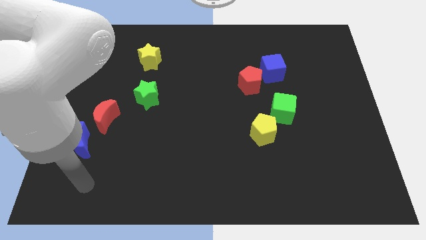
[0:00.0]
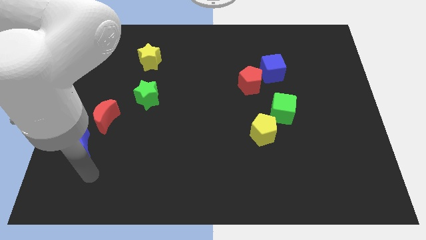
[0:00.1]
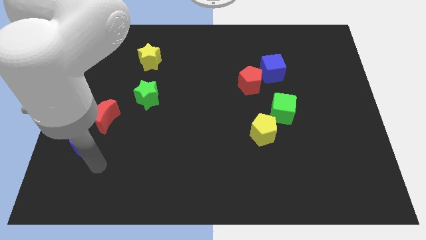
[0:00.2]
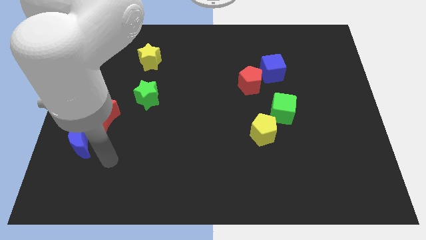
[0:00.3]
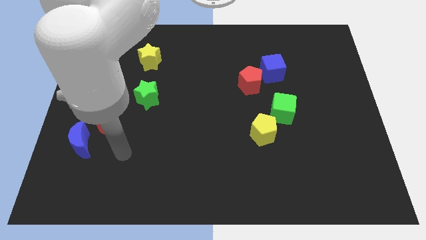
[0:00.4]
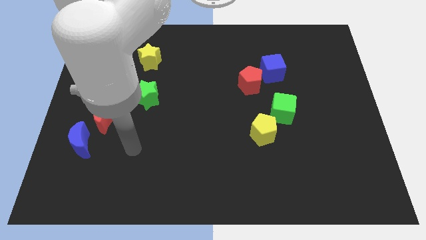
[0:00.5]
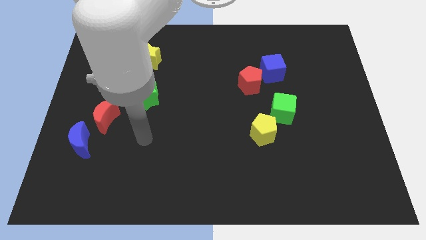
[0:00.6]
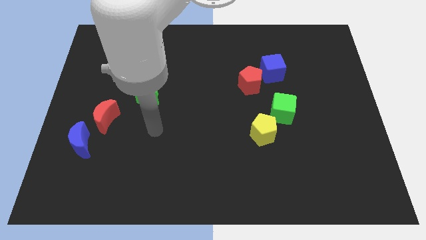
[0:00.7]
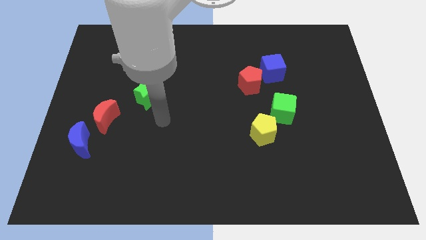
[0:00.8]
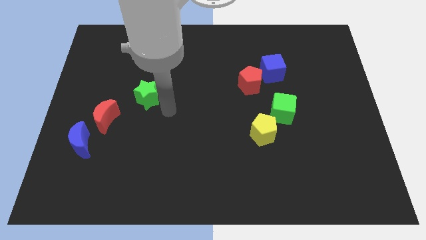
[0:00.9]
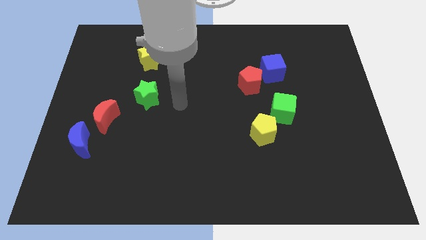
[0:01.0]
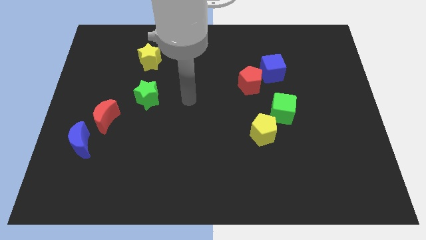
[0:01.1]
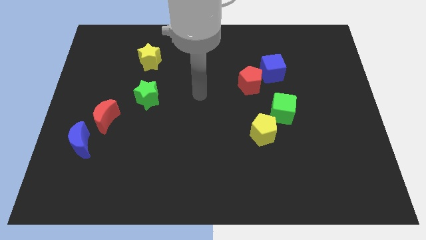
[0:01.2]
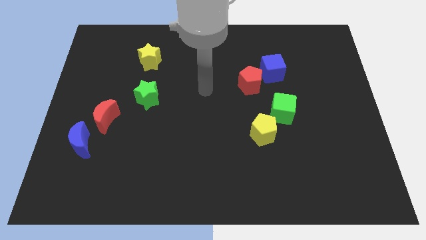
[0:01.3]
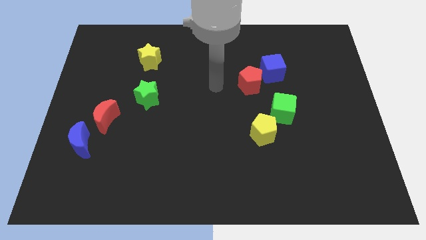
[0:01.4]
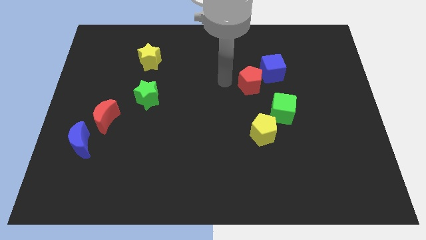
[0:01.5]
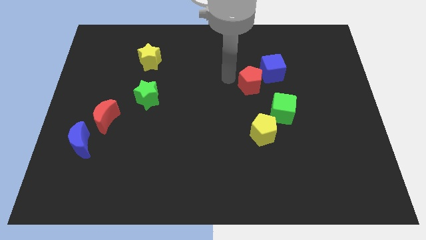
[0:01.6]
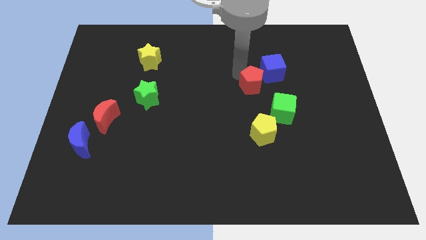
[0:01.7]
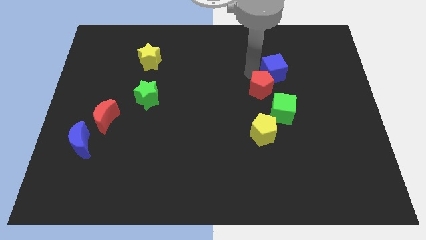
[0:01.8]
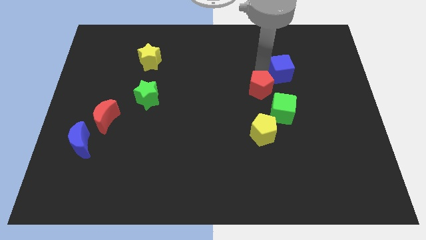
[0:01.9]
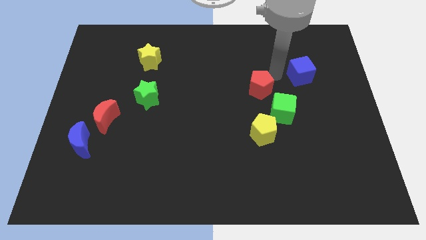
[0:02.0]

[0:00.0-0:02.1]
pull the red pentagon apart from the blue cube

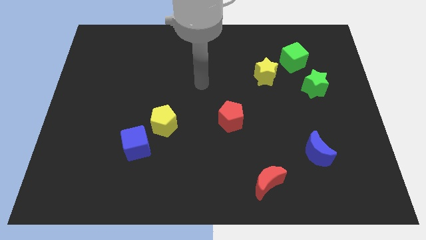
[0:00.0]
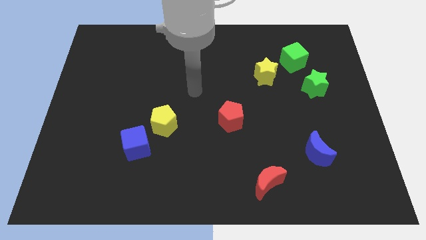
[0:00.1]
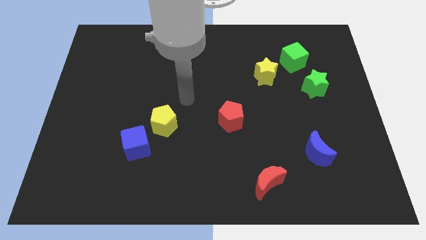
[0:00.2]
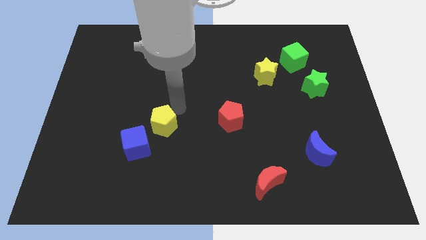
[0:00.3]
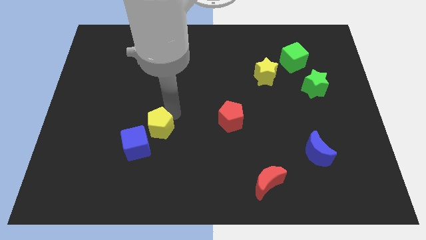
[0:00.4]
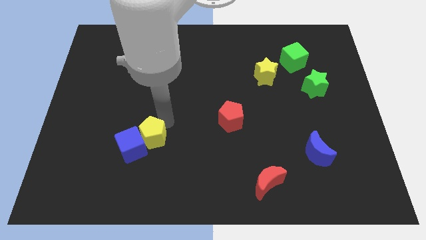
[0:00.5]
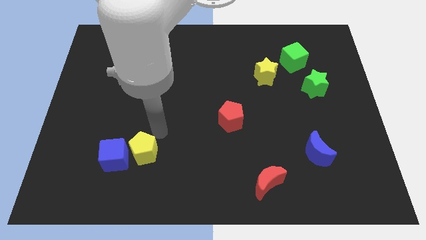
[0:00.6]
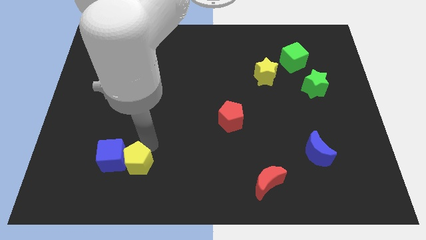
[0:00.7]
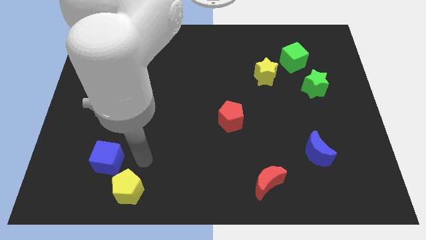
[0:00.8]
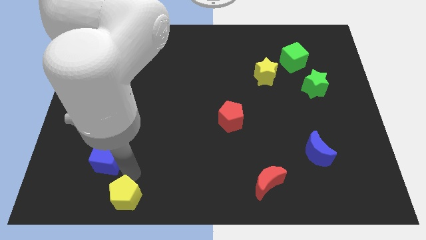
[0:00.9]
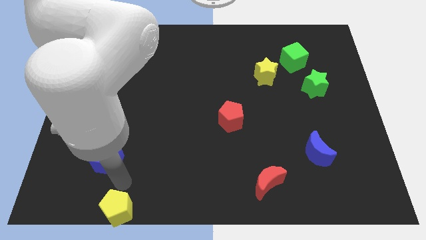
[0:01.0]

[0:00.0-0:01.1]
pull the blue cube apart from the yellow pentagon

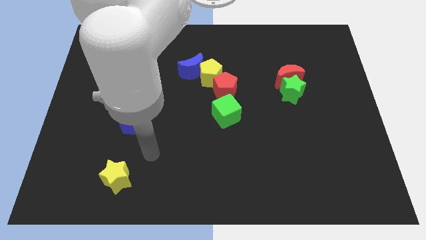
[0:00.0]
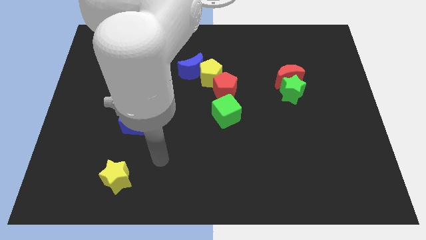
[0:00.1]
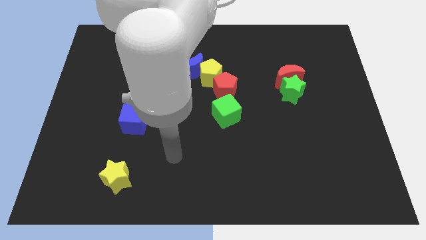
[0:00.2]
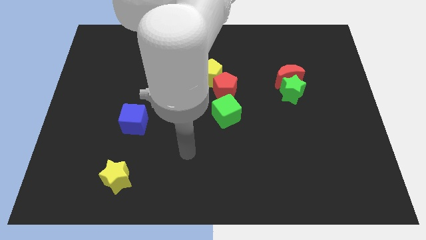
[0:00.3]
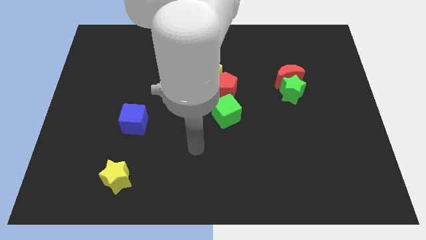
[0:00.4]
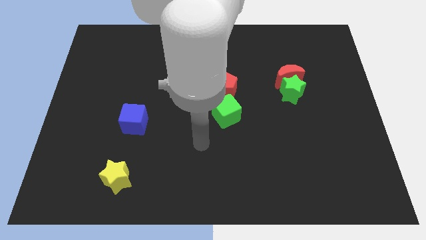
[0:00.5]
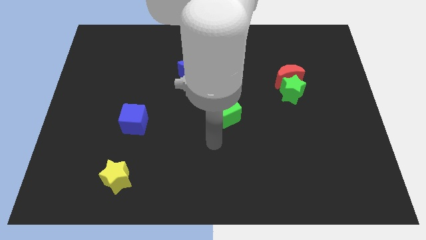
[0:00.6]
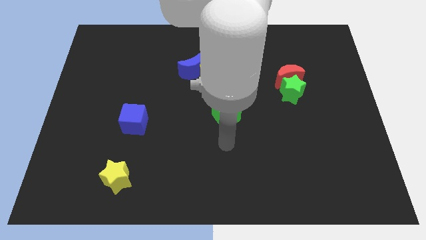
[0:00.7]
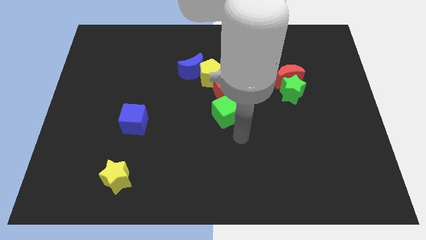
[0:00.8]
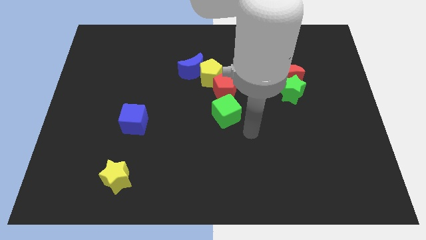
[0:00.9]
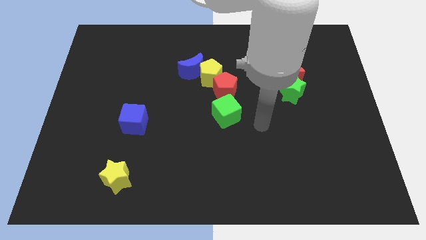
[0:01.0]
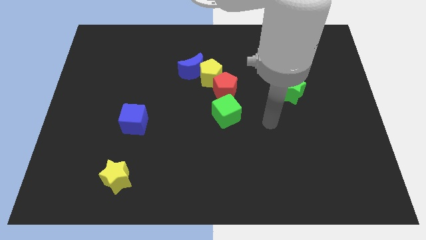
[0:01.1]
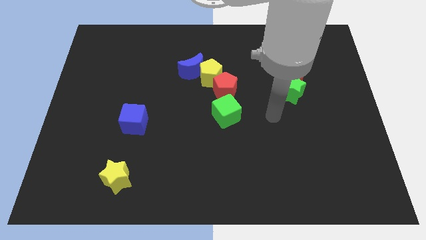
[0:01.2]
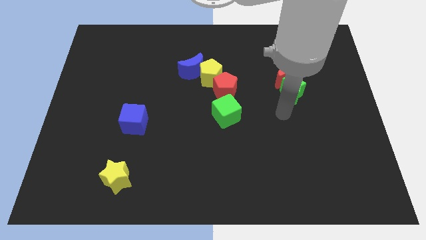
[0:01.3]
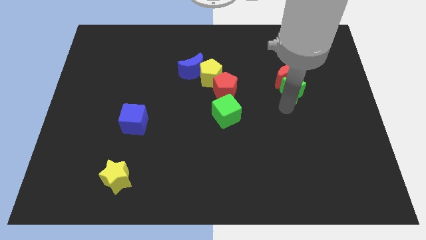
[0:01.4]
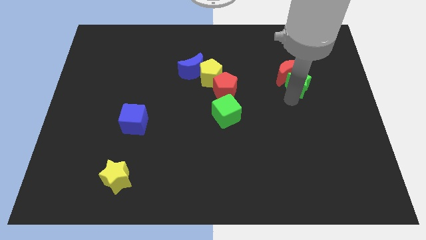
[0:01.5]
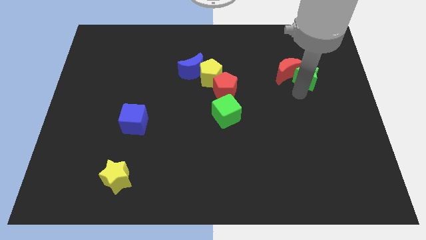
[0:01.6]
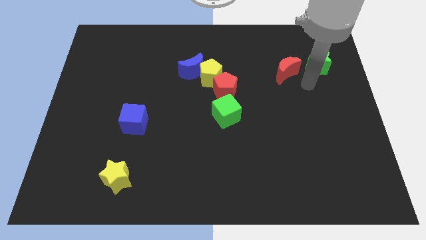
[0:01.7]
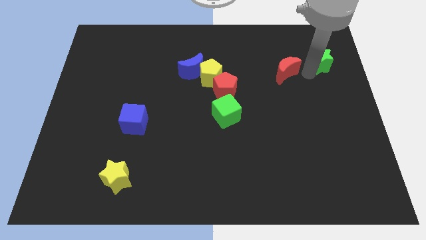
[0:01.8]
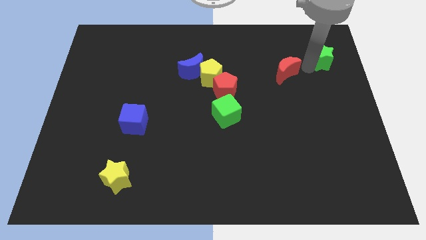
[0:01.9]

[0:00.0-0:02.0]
move the red moon away from the green star

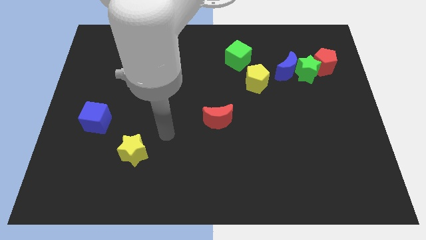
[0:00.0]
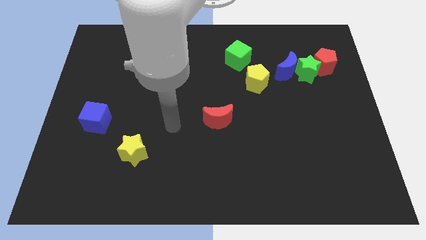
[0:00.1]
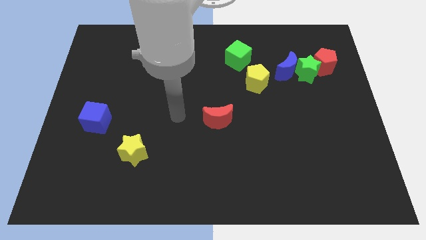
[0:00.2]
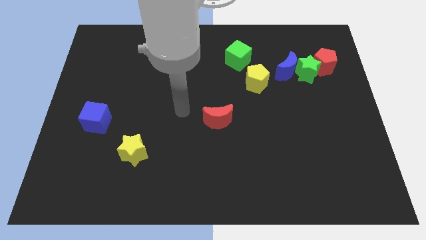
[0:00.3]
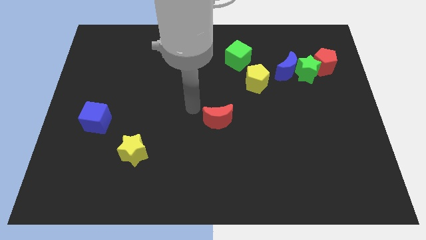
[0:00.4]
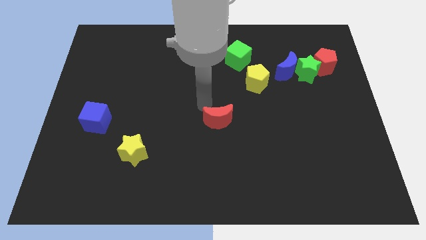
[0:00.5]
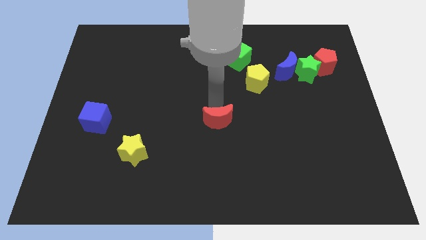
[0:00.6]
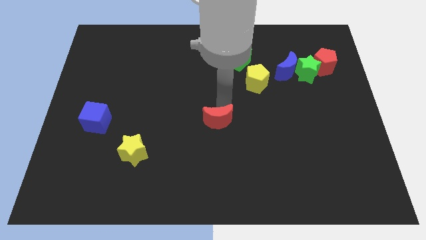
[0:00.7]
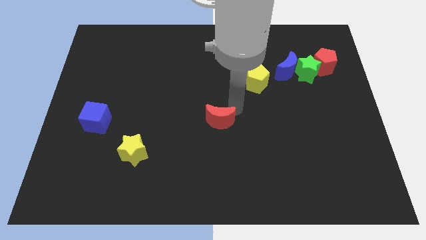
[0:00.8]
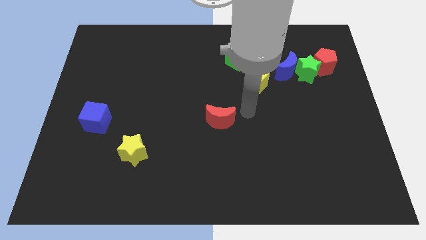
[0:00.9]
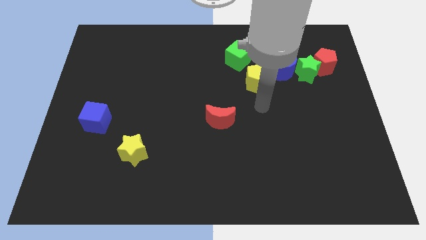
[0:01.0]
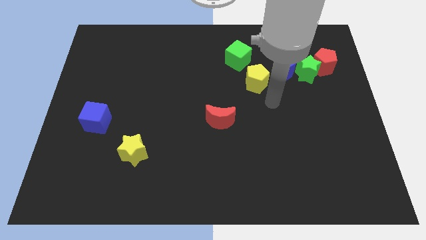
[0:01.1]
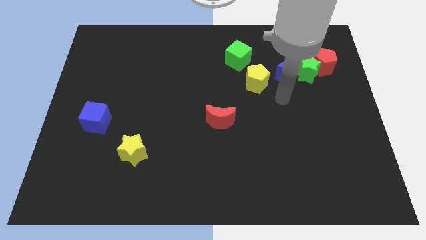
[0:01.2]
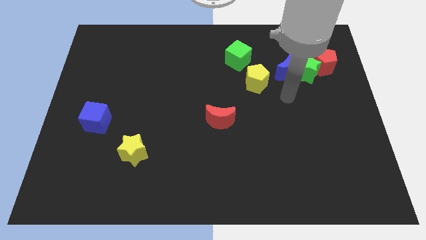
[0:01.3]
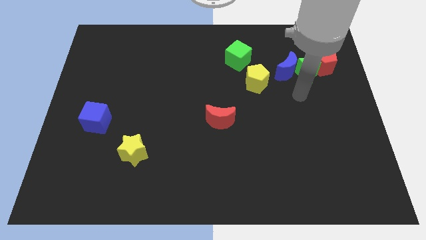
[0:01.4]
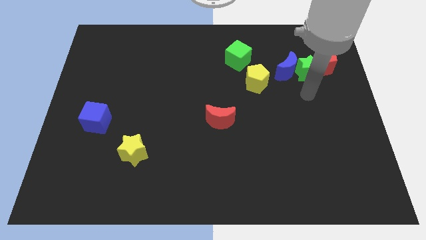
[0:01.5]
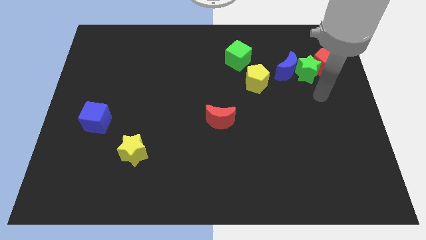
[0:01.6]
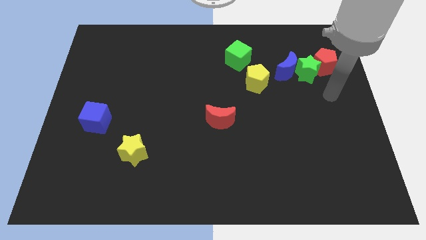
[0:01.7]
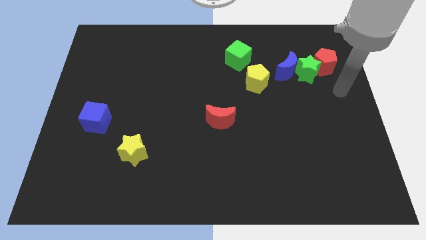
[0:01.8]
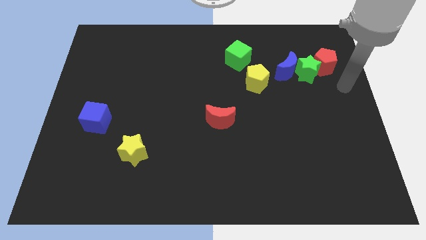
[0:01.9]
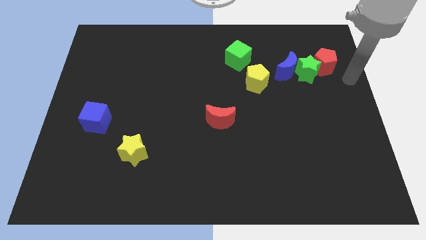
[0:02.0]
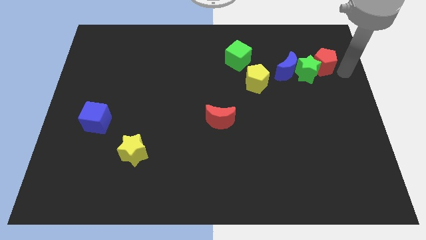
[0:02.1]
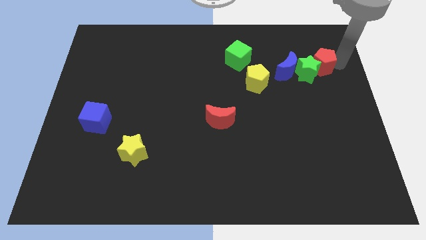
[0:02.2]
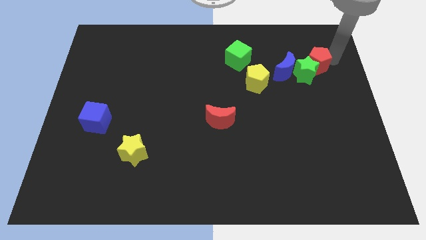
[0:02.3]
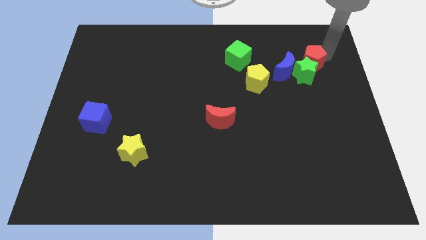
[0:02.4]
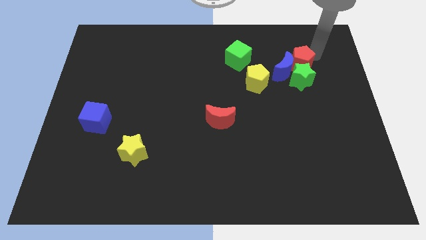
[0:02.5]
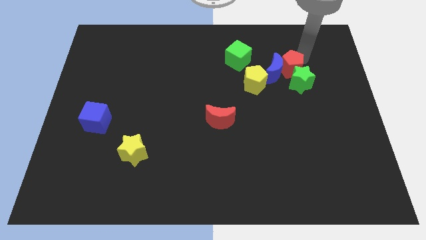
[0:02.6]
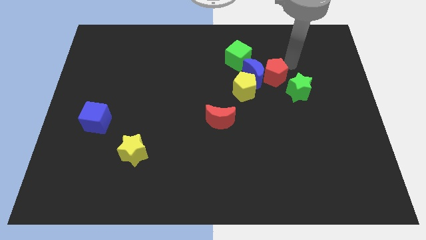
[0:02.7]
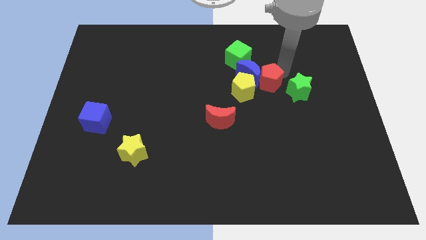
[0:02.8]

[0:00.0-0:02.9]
separate the green star from the blue moon and red pentagon

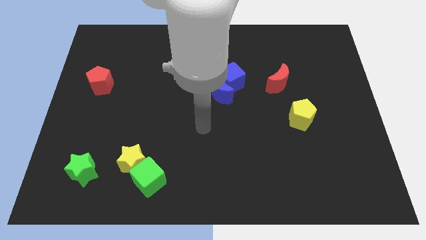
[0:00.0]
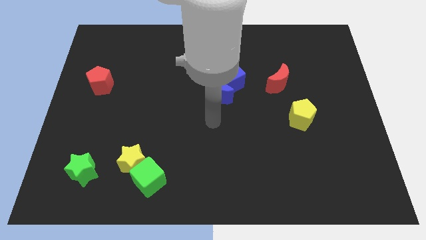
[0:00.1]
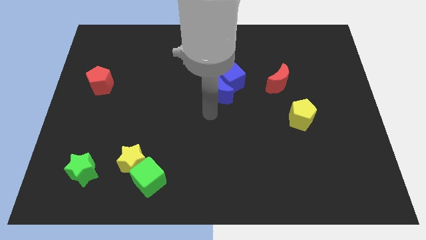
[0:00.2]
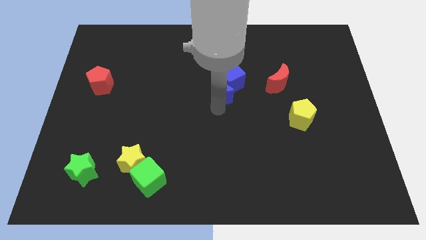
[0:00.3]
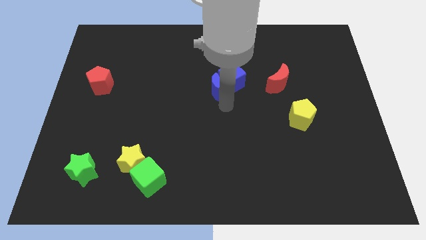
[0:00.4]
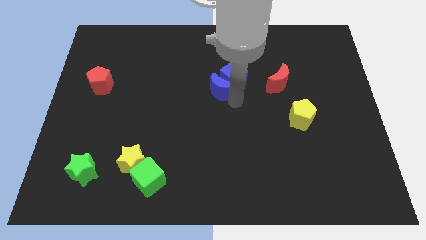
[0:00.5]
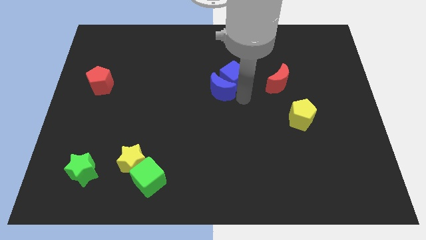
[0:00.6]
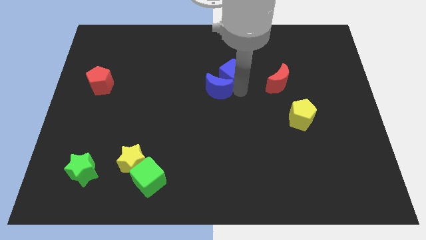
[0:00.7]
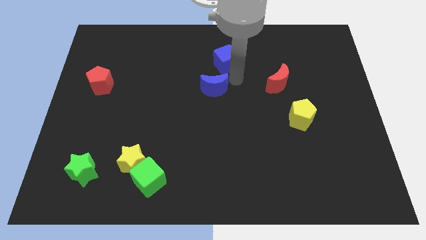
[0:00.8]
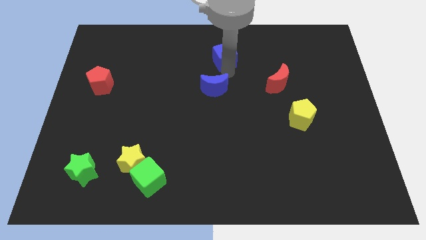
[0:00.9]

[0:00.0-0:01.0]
separate the blue moon from the blue cube

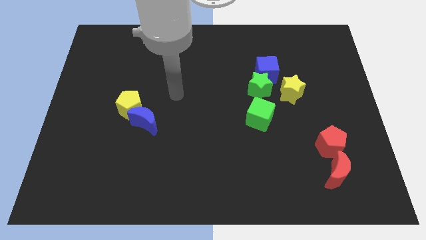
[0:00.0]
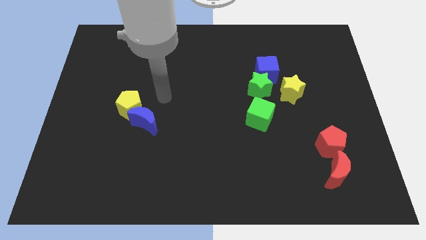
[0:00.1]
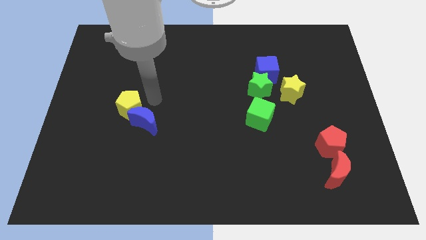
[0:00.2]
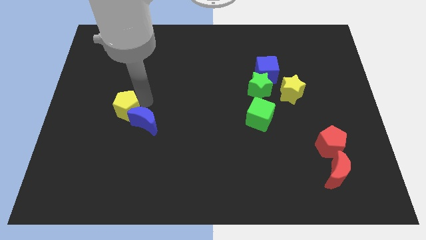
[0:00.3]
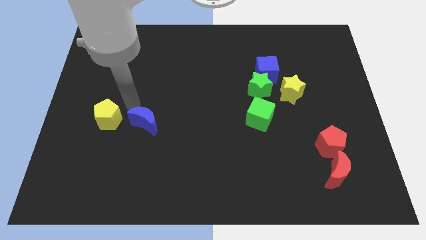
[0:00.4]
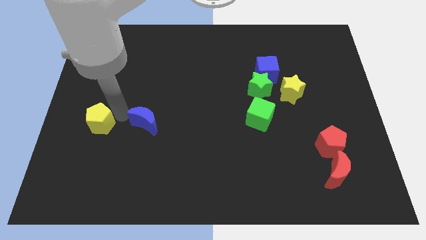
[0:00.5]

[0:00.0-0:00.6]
separate the blue moon from the yellow pentagon
